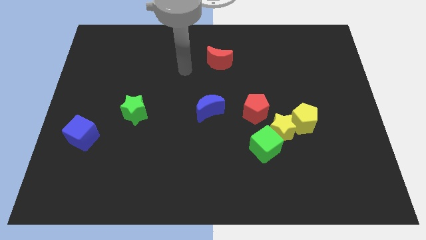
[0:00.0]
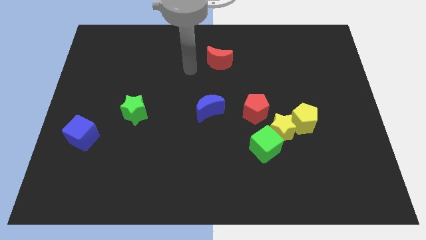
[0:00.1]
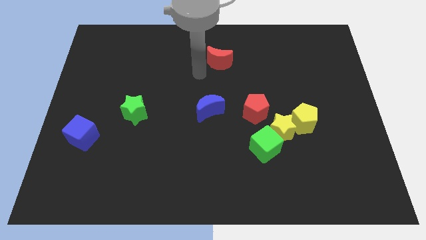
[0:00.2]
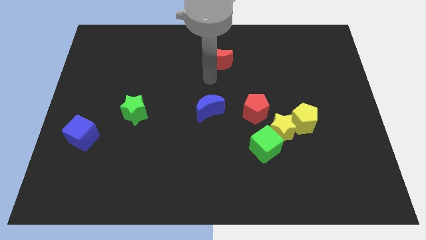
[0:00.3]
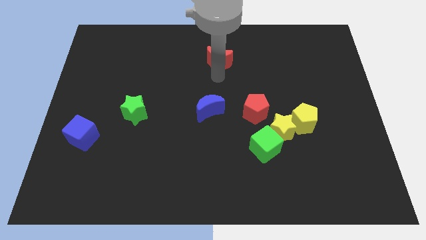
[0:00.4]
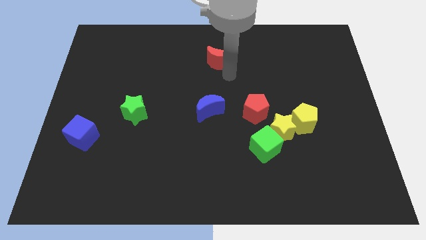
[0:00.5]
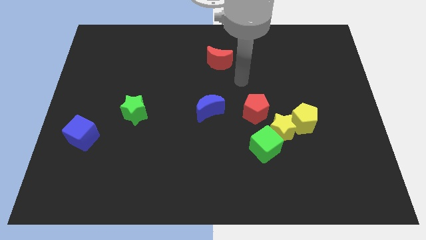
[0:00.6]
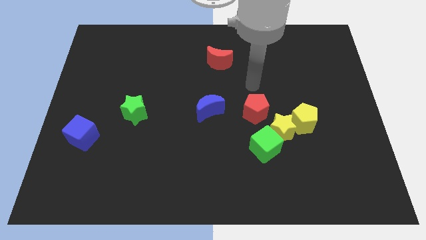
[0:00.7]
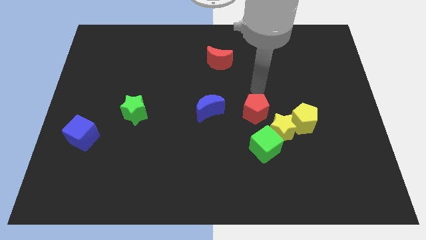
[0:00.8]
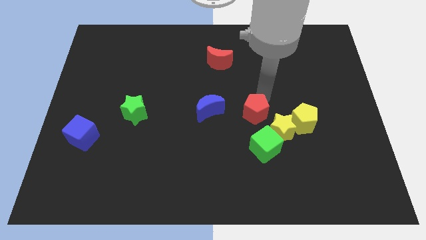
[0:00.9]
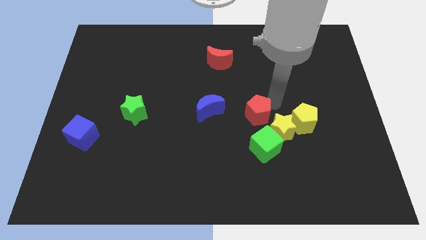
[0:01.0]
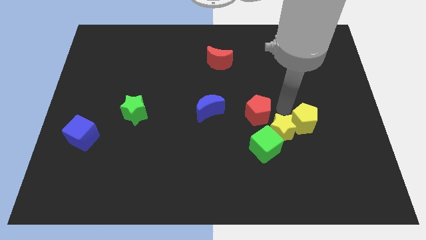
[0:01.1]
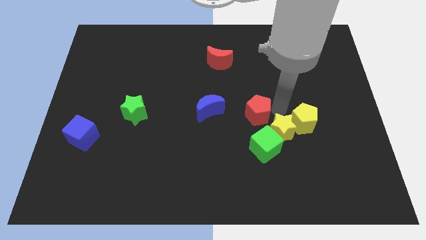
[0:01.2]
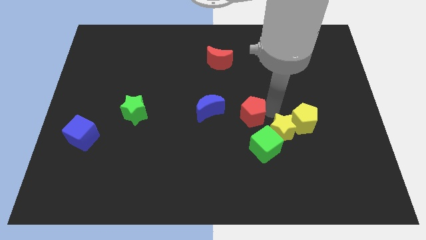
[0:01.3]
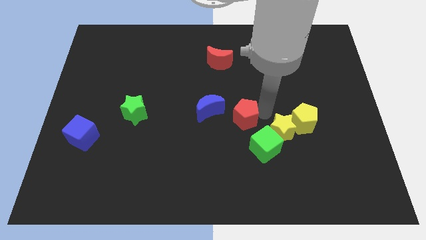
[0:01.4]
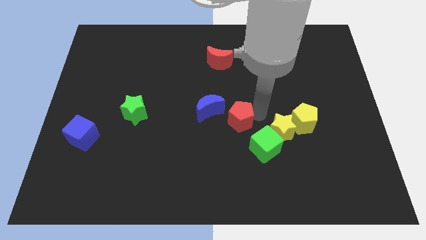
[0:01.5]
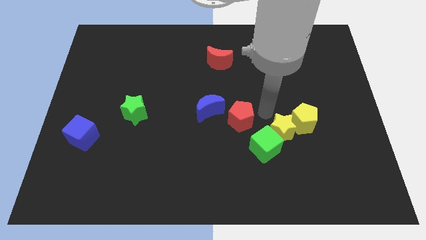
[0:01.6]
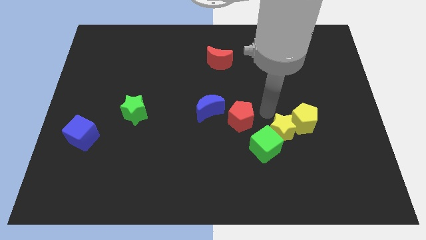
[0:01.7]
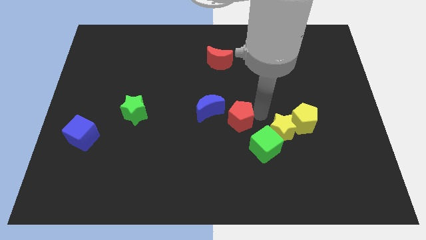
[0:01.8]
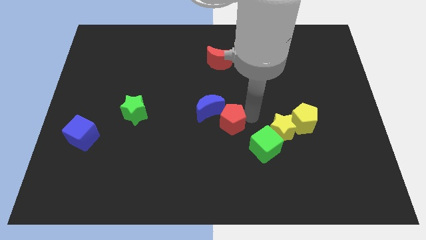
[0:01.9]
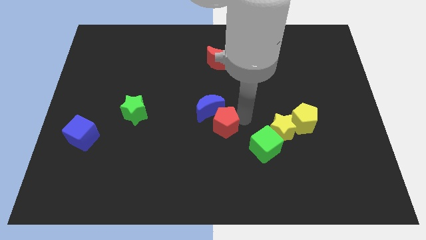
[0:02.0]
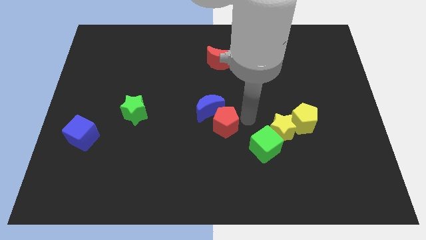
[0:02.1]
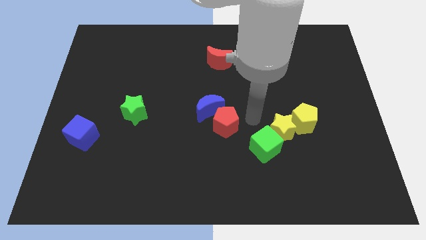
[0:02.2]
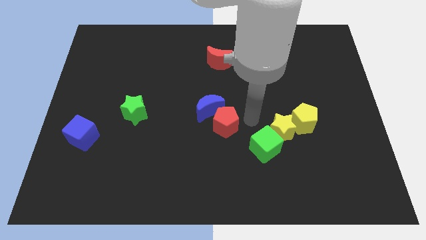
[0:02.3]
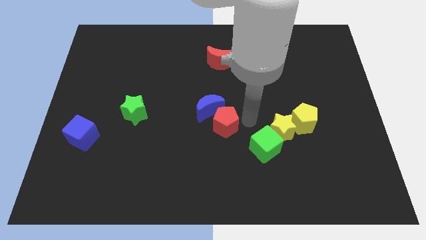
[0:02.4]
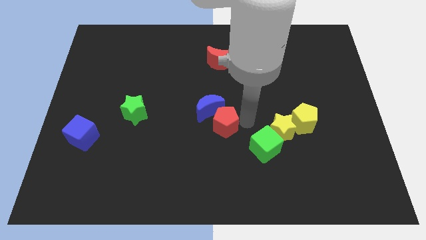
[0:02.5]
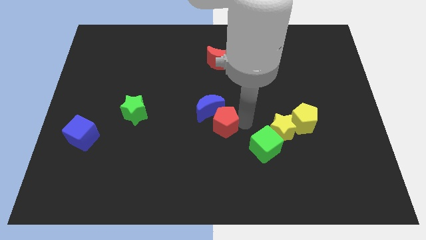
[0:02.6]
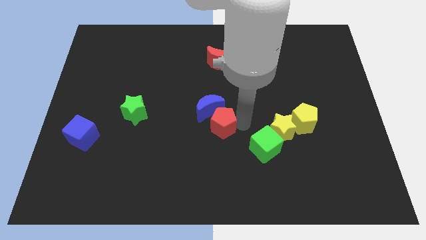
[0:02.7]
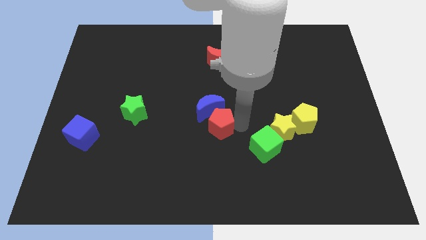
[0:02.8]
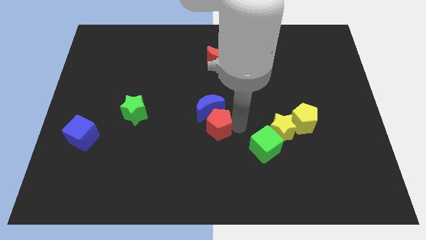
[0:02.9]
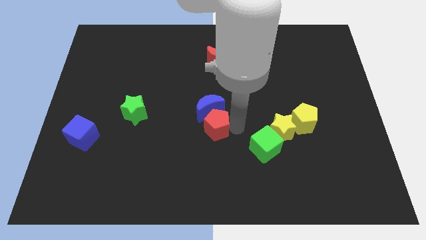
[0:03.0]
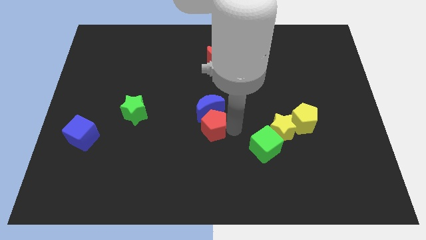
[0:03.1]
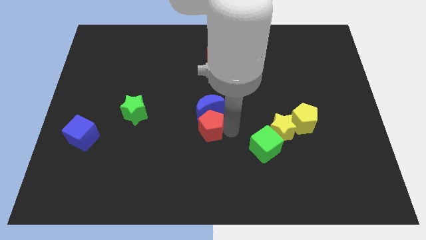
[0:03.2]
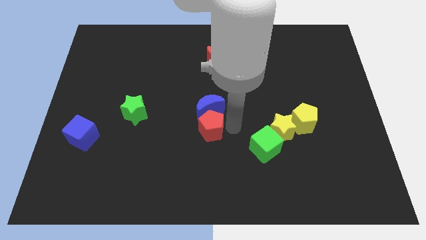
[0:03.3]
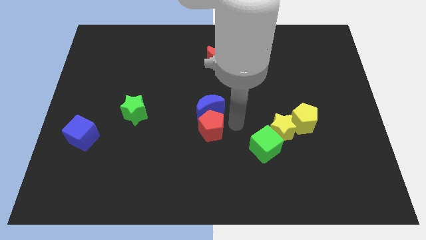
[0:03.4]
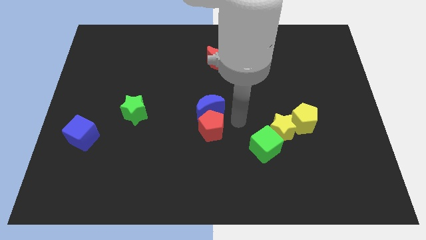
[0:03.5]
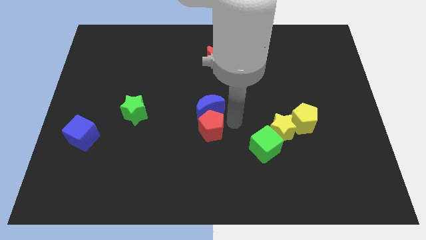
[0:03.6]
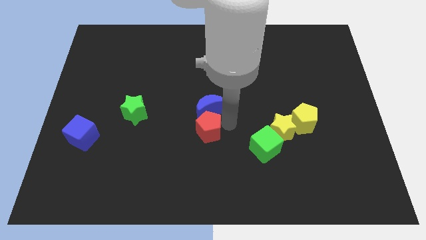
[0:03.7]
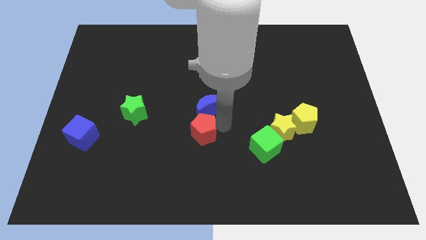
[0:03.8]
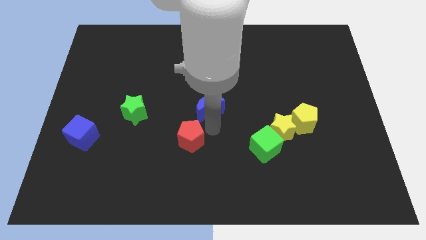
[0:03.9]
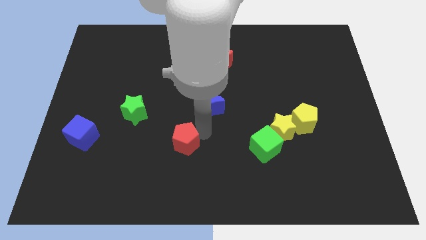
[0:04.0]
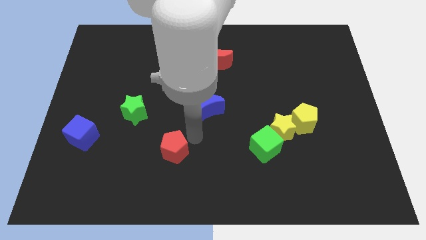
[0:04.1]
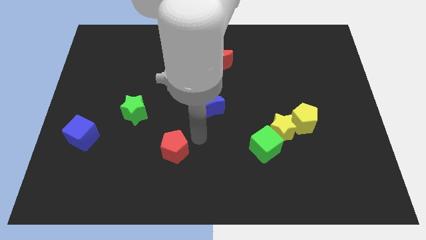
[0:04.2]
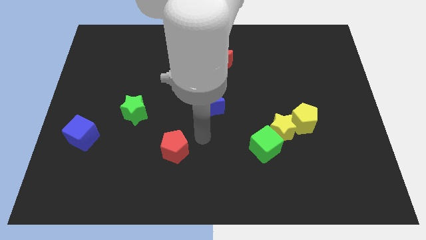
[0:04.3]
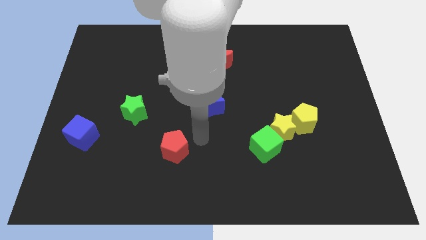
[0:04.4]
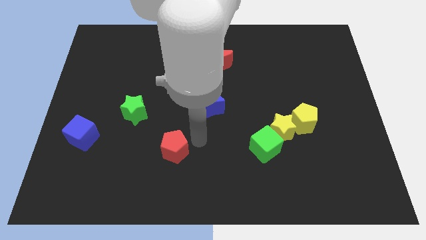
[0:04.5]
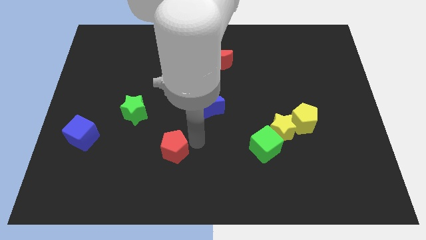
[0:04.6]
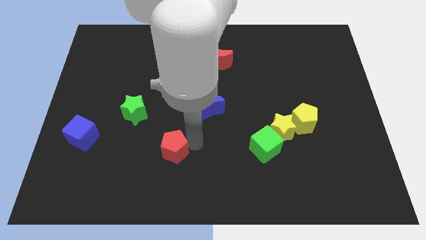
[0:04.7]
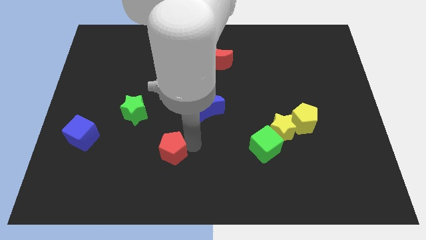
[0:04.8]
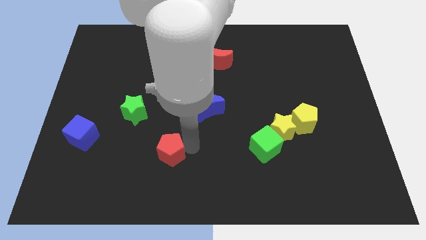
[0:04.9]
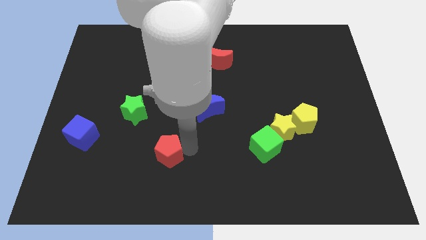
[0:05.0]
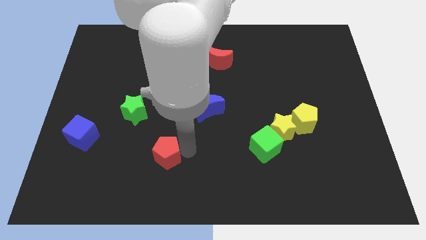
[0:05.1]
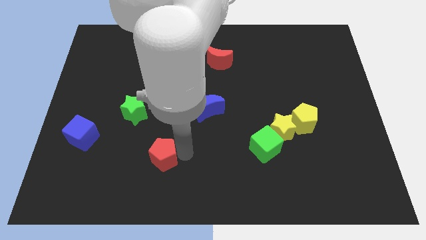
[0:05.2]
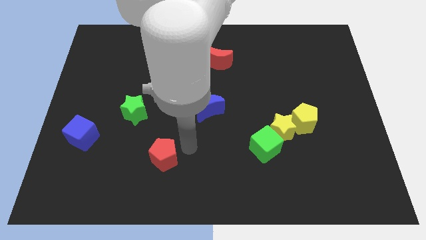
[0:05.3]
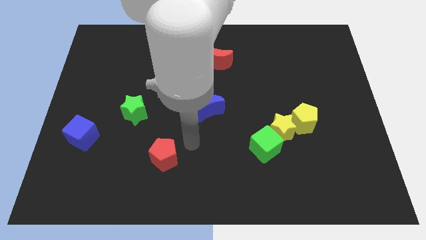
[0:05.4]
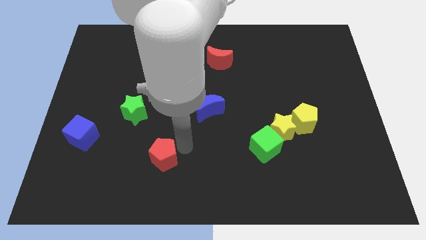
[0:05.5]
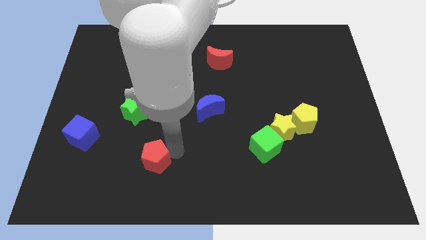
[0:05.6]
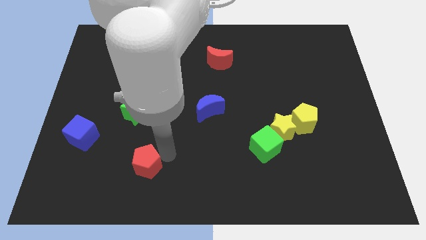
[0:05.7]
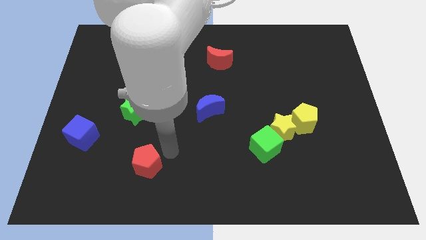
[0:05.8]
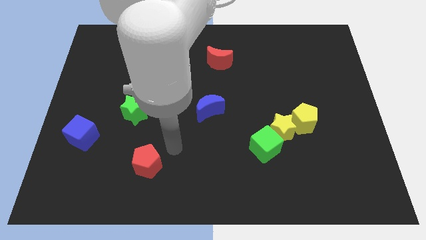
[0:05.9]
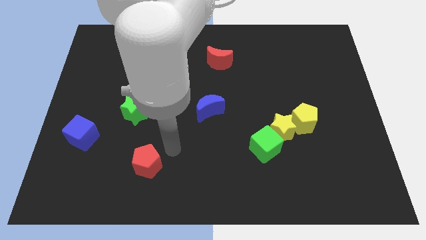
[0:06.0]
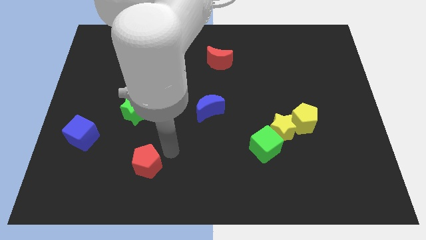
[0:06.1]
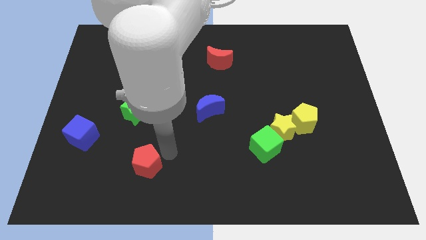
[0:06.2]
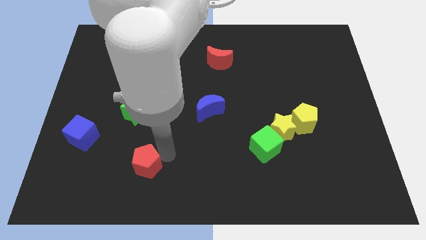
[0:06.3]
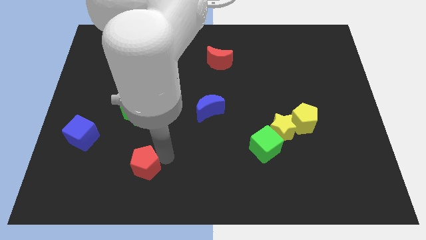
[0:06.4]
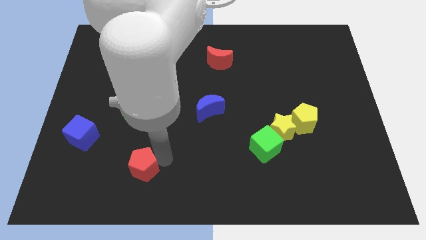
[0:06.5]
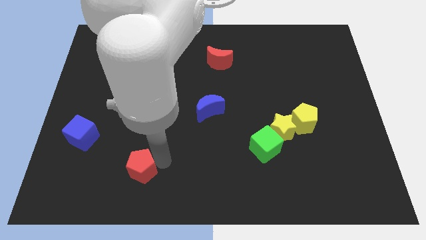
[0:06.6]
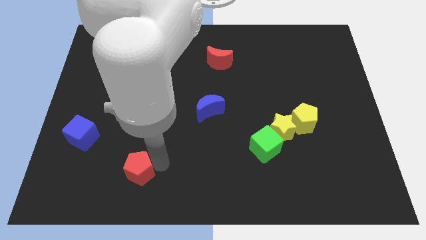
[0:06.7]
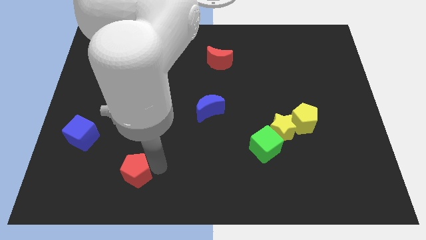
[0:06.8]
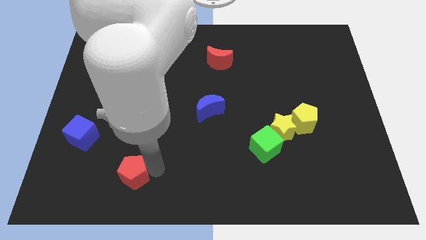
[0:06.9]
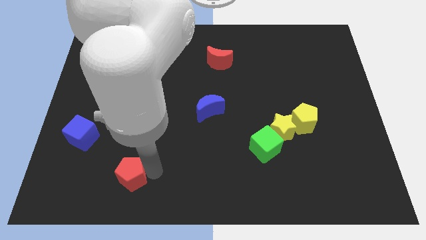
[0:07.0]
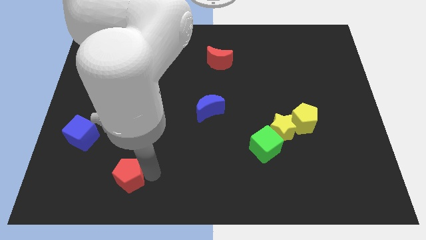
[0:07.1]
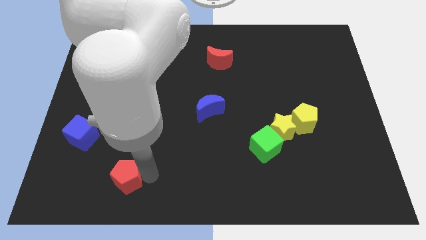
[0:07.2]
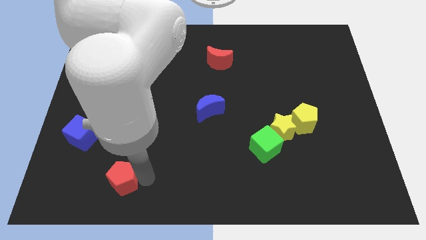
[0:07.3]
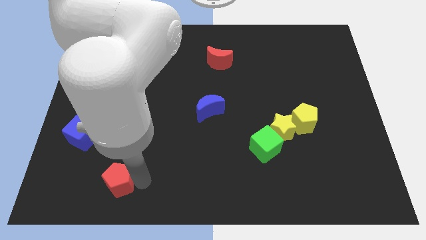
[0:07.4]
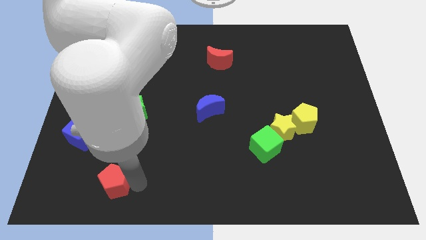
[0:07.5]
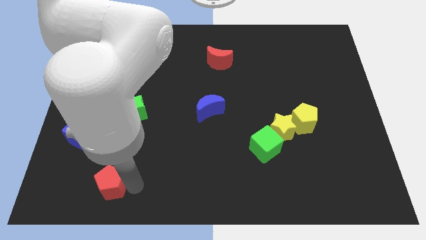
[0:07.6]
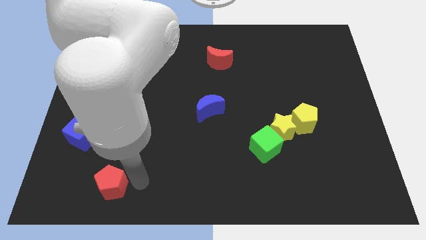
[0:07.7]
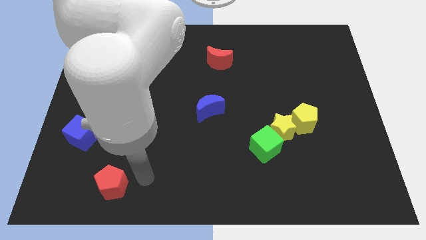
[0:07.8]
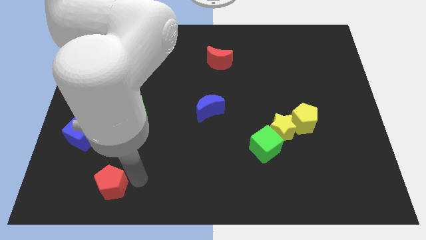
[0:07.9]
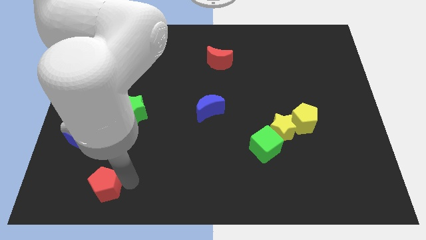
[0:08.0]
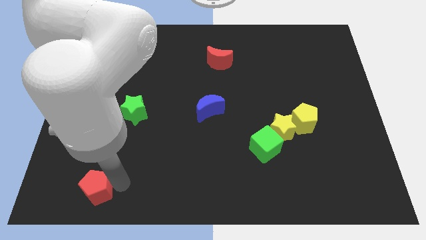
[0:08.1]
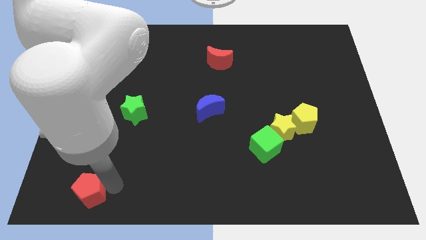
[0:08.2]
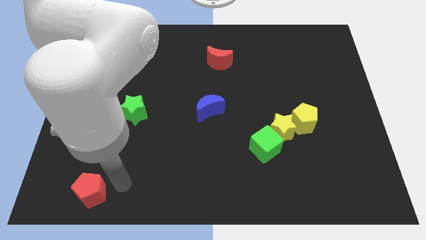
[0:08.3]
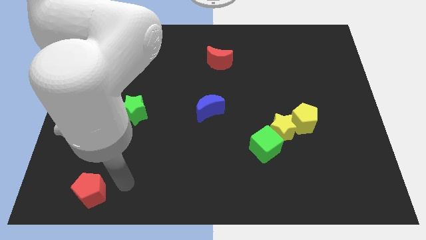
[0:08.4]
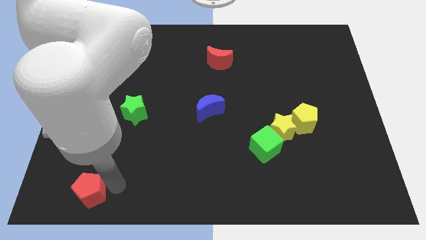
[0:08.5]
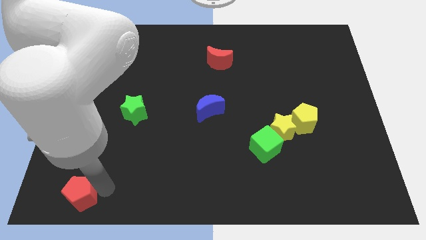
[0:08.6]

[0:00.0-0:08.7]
put the red pentagon to the bottom left of the board
